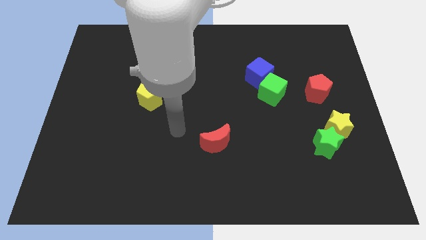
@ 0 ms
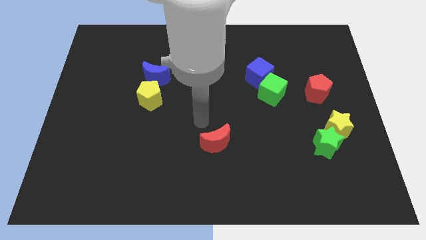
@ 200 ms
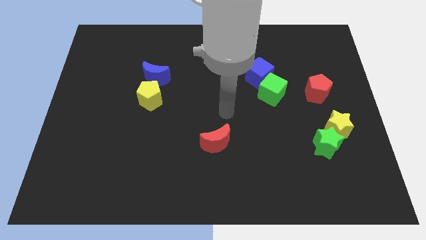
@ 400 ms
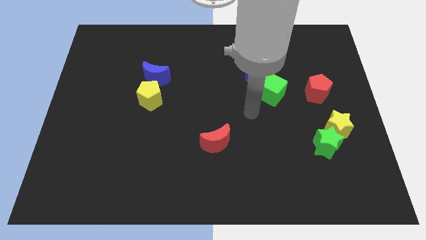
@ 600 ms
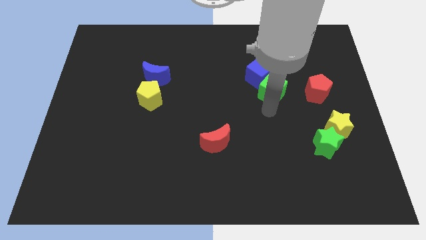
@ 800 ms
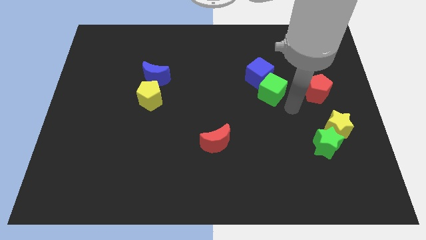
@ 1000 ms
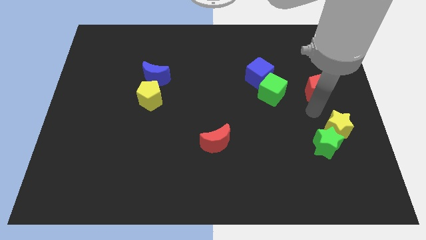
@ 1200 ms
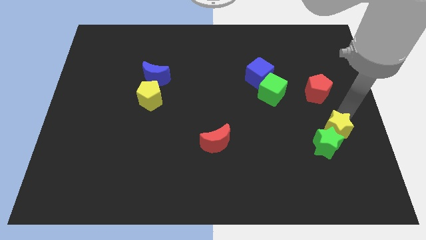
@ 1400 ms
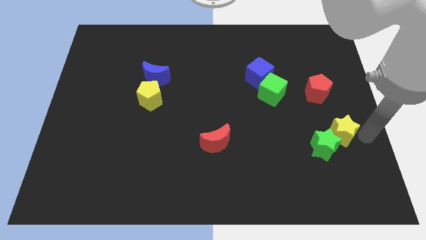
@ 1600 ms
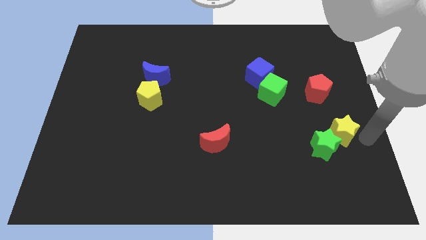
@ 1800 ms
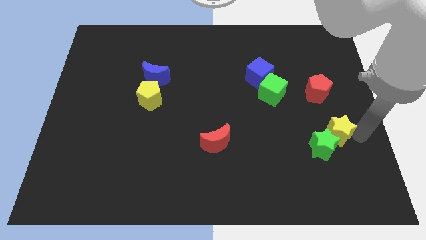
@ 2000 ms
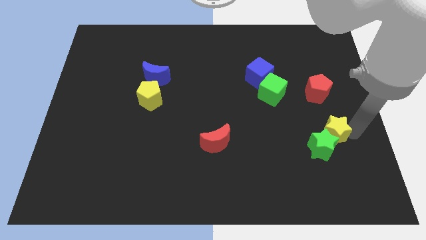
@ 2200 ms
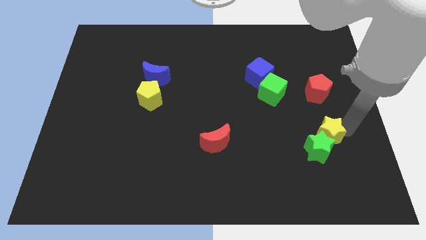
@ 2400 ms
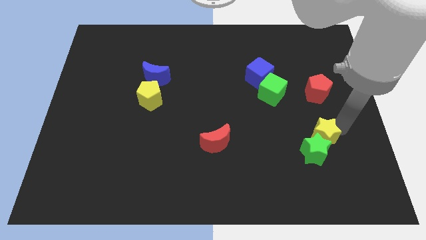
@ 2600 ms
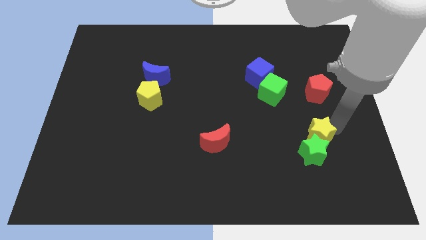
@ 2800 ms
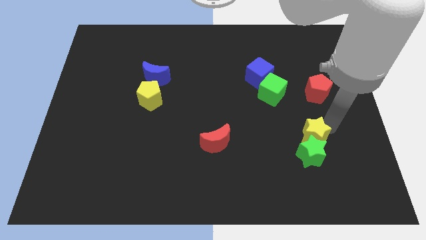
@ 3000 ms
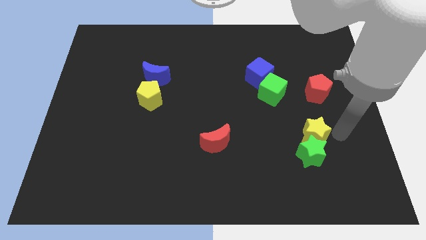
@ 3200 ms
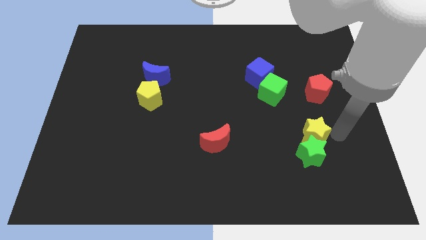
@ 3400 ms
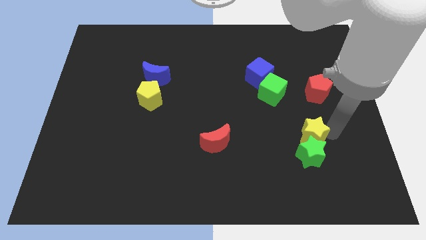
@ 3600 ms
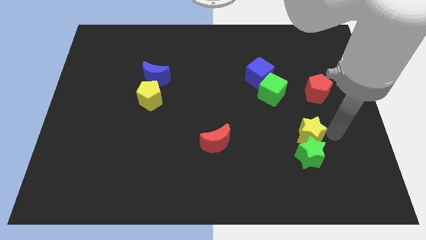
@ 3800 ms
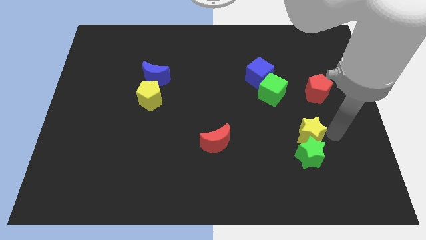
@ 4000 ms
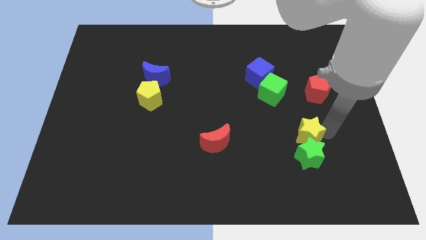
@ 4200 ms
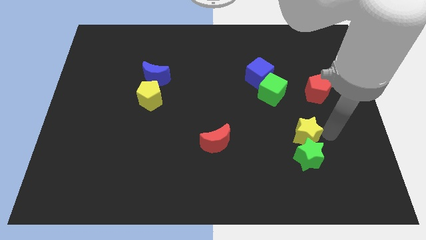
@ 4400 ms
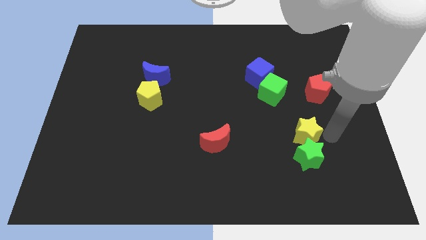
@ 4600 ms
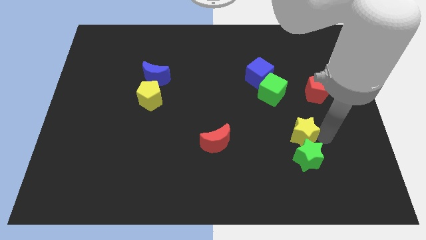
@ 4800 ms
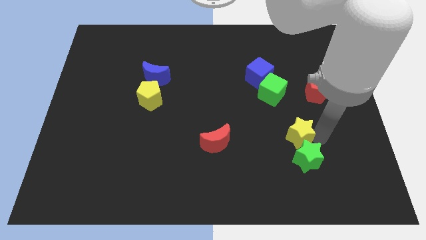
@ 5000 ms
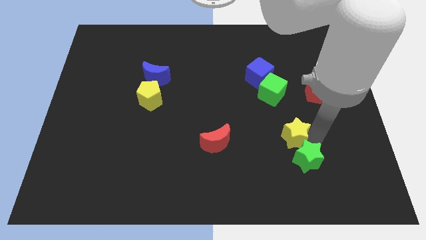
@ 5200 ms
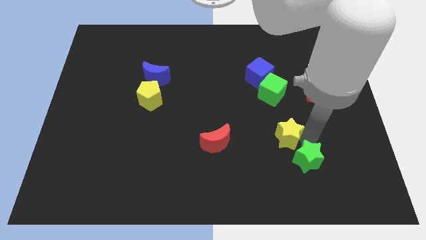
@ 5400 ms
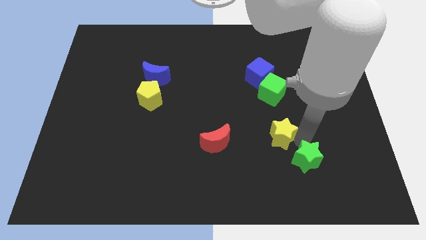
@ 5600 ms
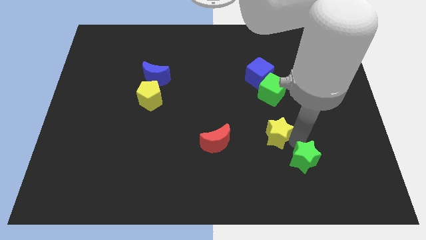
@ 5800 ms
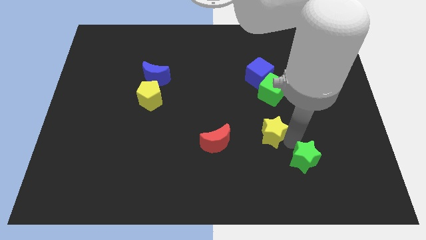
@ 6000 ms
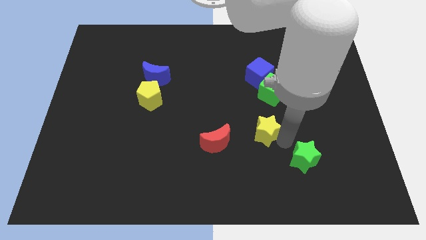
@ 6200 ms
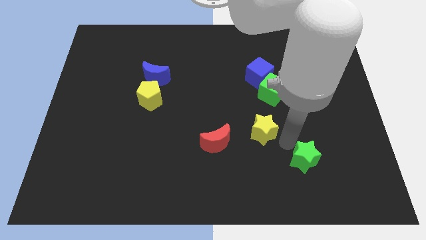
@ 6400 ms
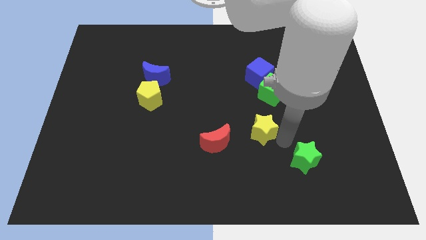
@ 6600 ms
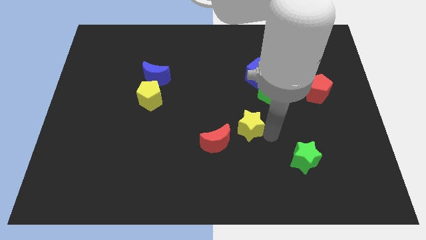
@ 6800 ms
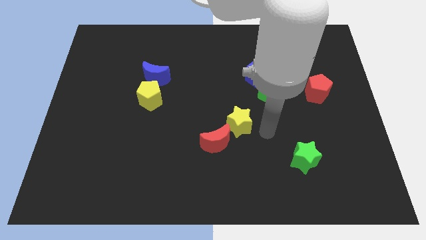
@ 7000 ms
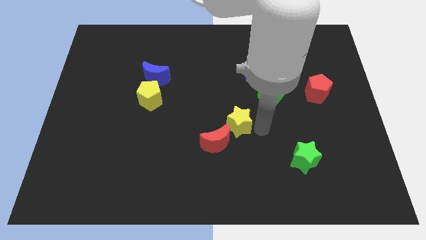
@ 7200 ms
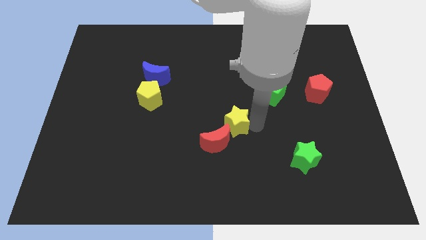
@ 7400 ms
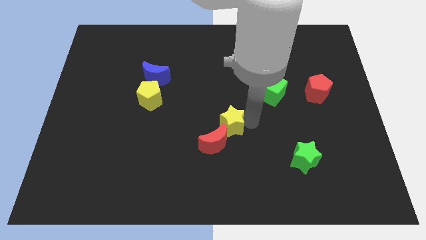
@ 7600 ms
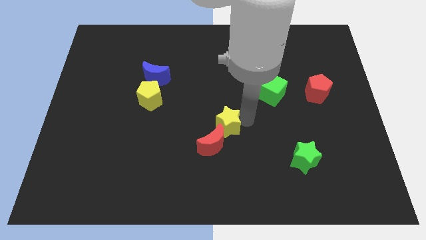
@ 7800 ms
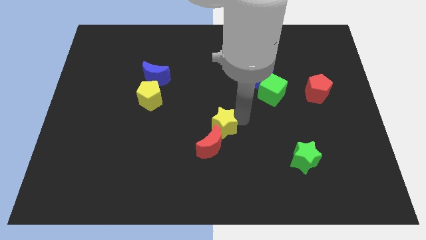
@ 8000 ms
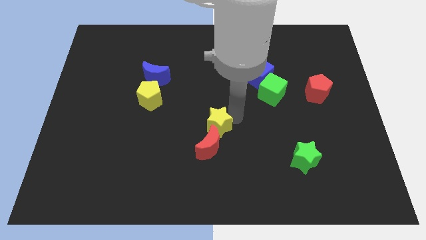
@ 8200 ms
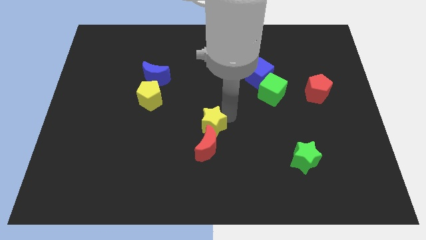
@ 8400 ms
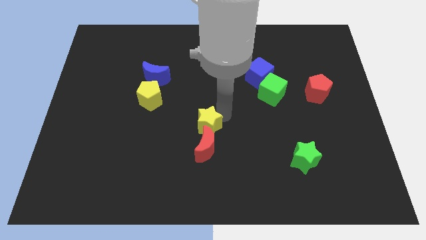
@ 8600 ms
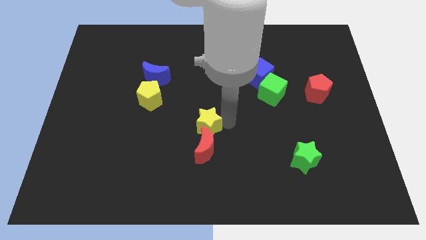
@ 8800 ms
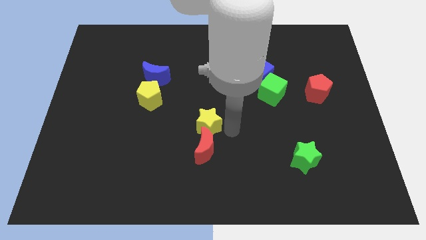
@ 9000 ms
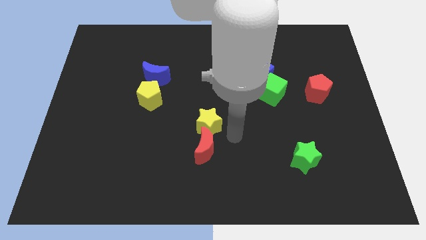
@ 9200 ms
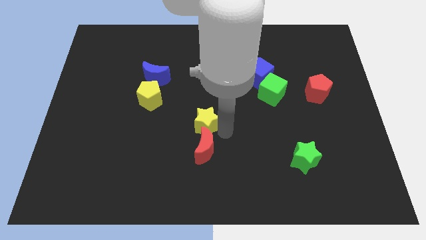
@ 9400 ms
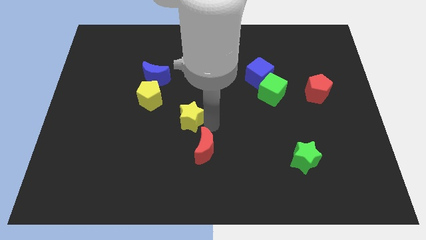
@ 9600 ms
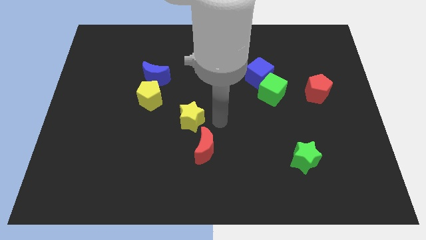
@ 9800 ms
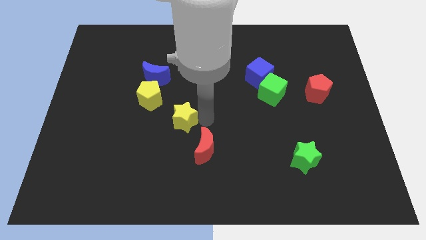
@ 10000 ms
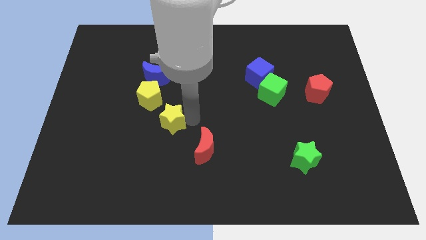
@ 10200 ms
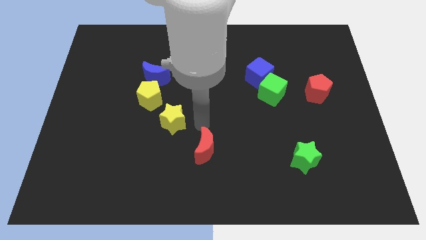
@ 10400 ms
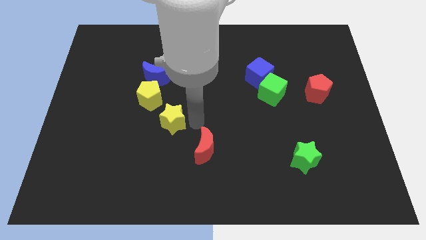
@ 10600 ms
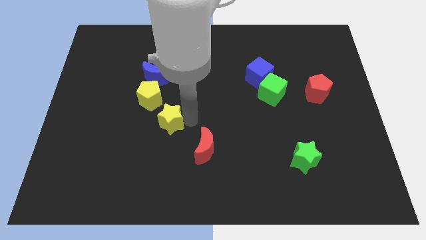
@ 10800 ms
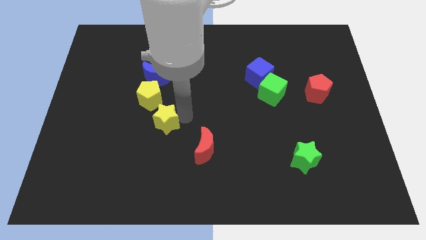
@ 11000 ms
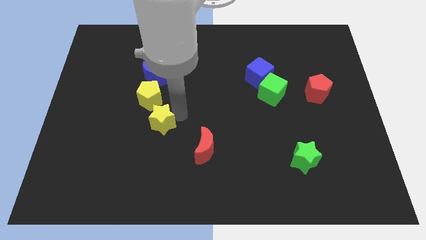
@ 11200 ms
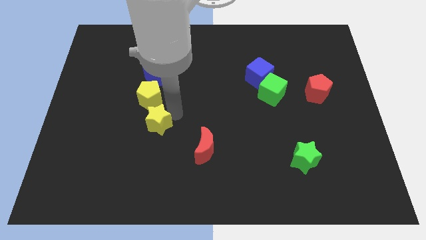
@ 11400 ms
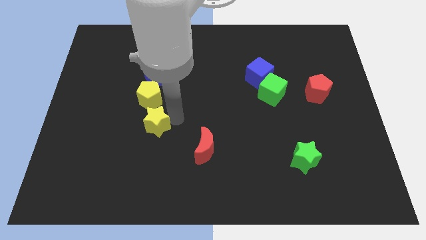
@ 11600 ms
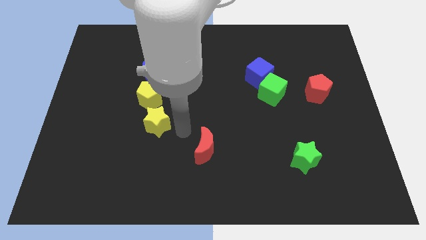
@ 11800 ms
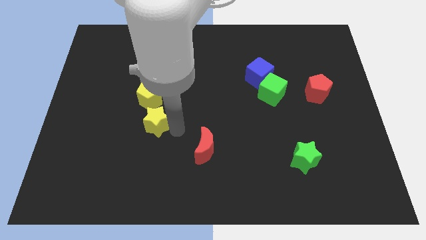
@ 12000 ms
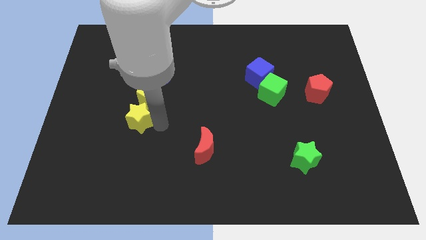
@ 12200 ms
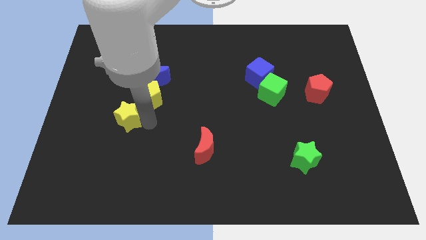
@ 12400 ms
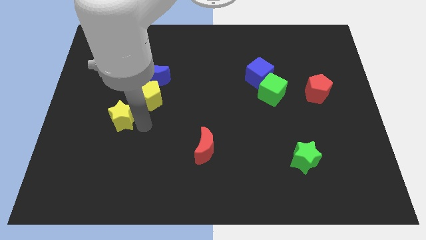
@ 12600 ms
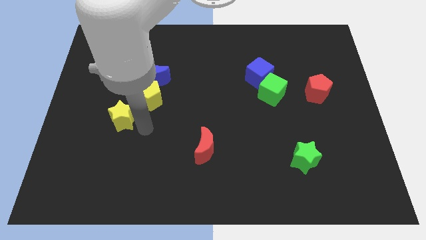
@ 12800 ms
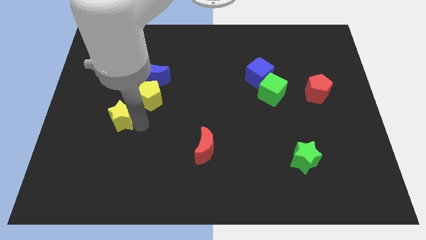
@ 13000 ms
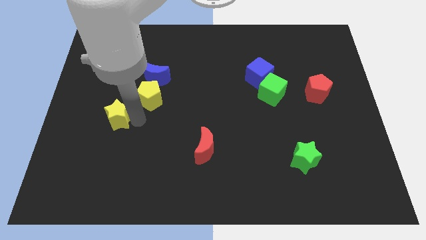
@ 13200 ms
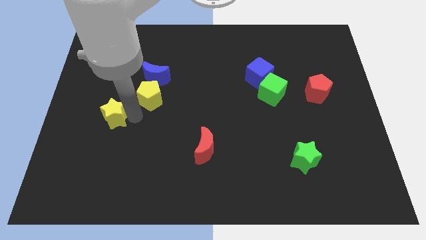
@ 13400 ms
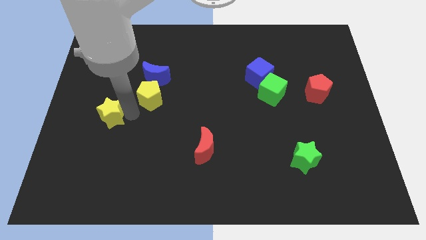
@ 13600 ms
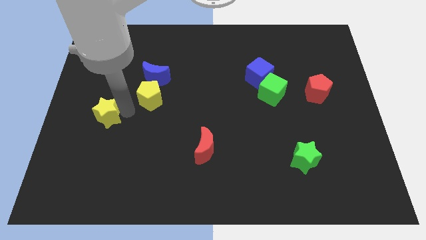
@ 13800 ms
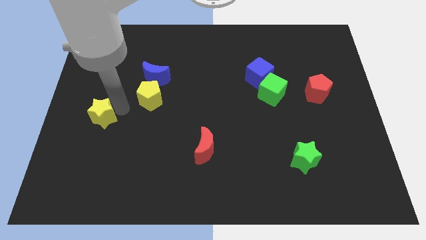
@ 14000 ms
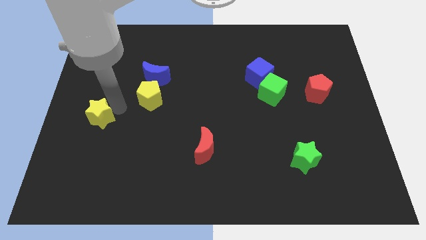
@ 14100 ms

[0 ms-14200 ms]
move the yellow star to the left side of the board
